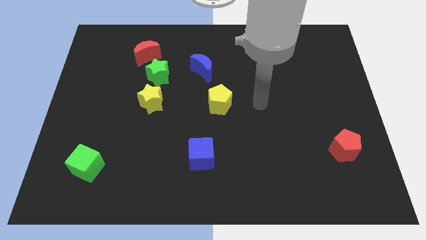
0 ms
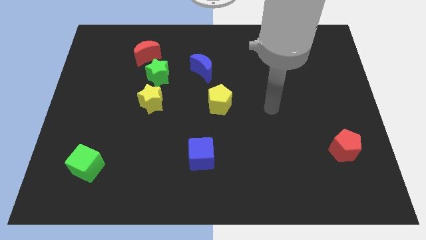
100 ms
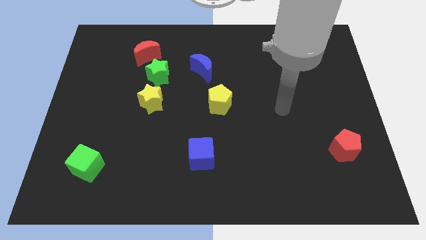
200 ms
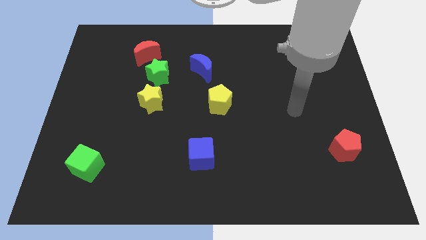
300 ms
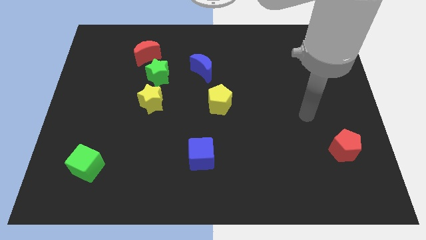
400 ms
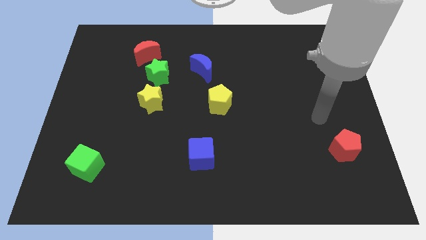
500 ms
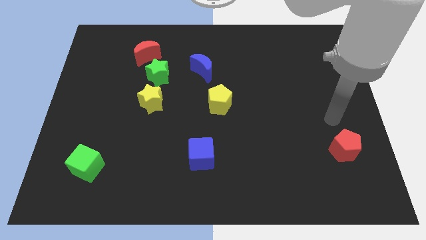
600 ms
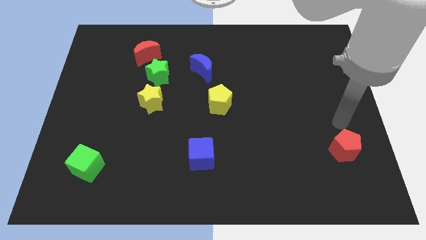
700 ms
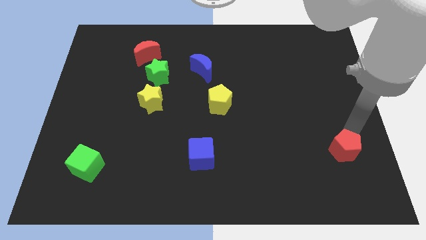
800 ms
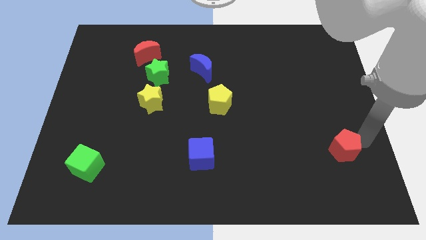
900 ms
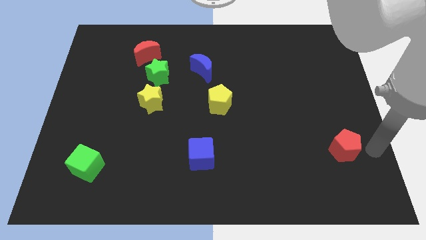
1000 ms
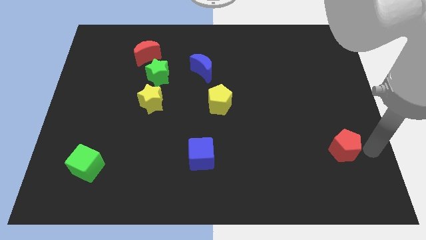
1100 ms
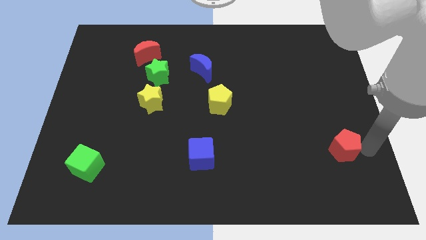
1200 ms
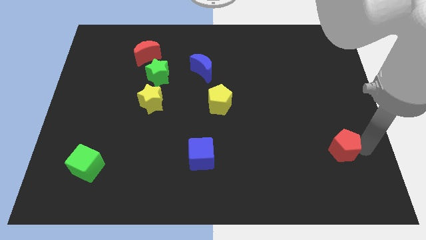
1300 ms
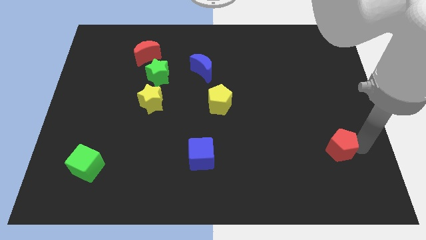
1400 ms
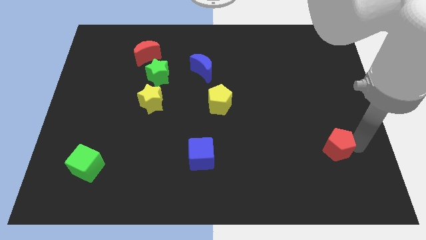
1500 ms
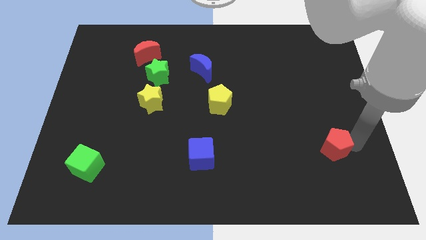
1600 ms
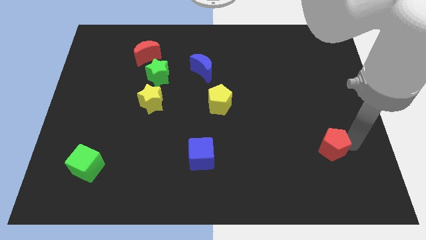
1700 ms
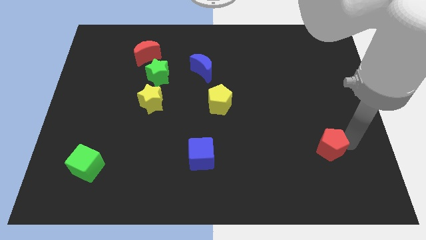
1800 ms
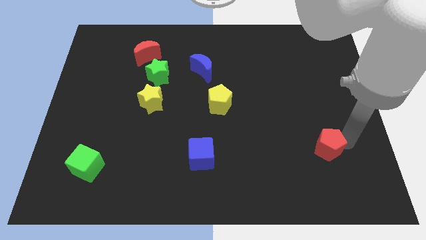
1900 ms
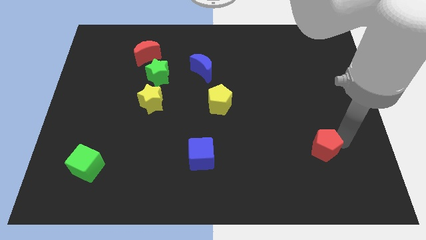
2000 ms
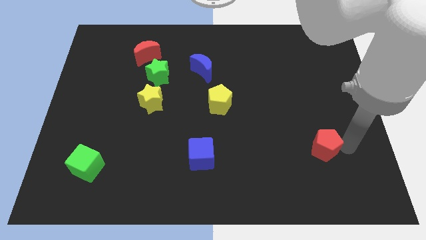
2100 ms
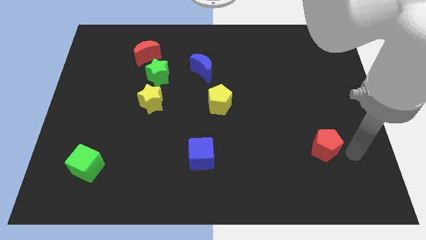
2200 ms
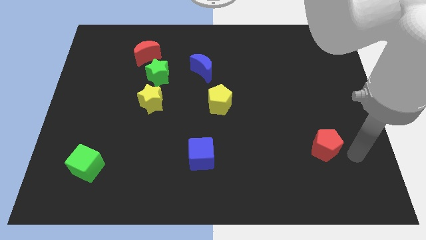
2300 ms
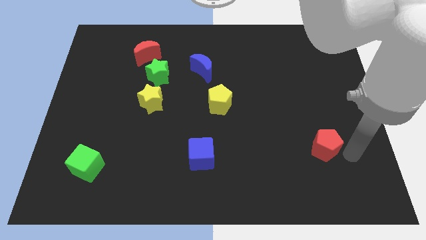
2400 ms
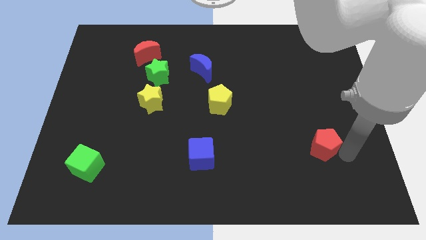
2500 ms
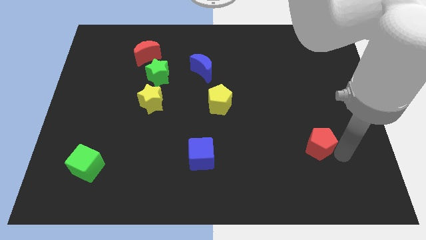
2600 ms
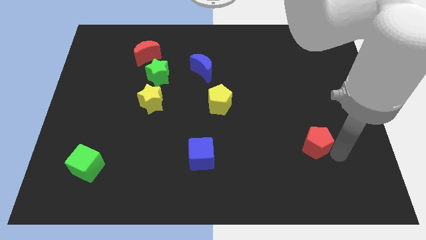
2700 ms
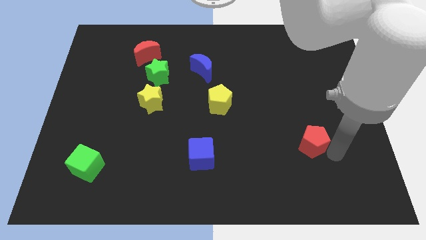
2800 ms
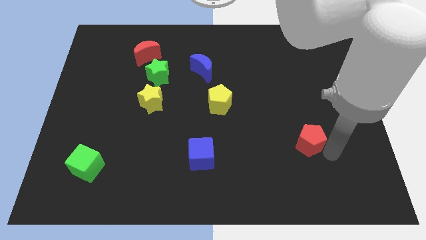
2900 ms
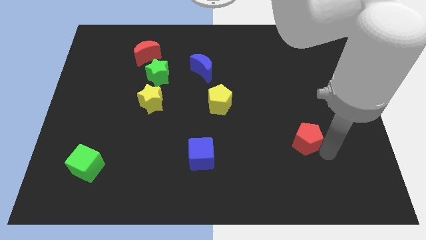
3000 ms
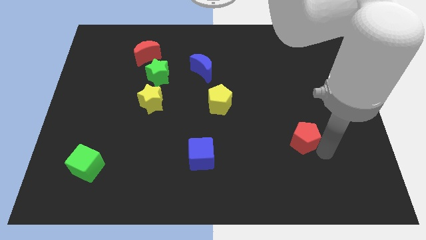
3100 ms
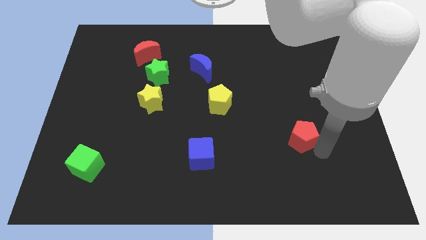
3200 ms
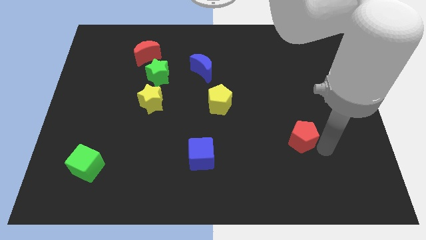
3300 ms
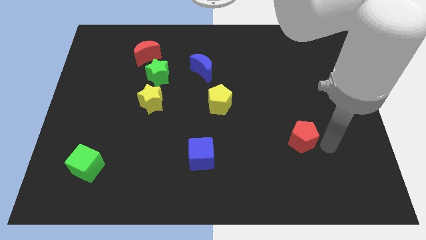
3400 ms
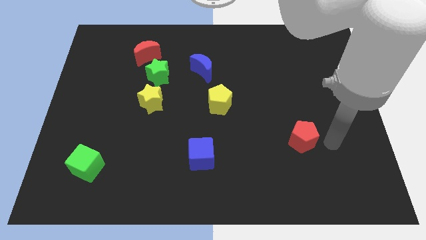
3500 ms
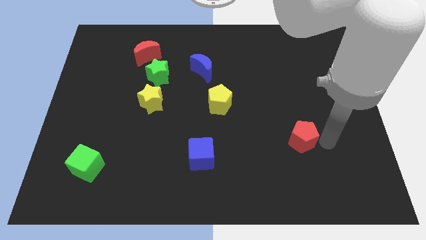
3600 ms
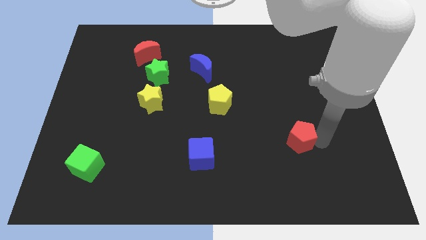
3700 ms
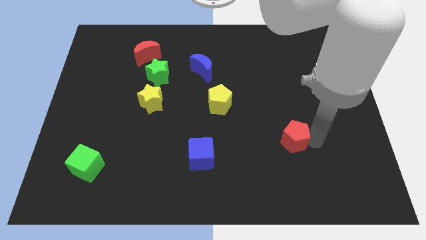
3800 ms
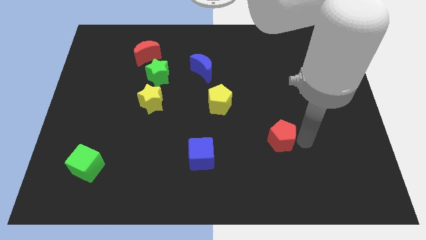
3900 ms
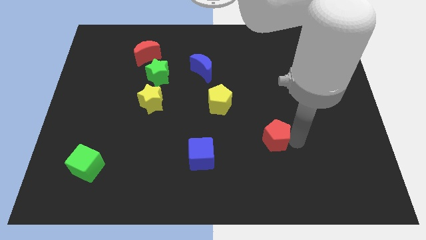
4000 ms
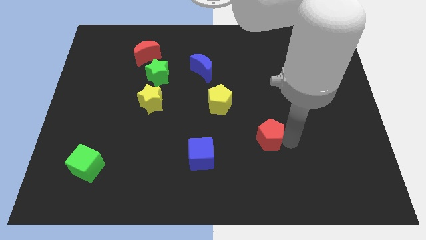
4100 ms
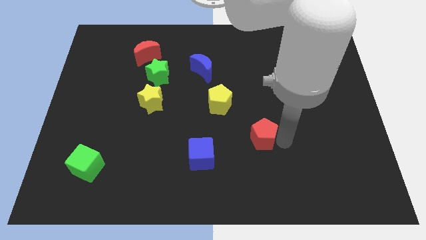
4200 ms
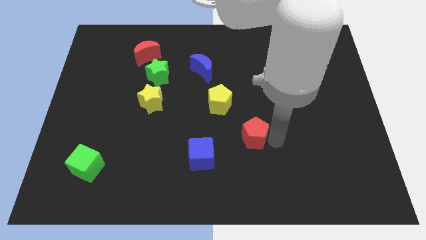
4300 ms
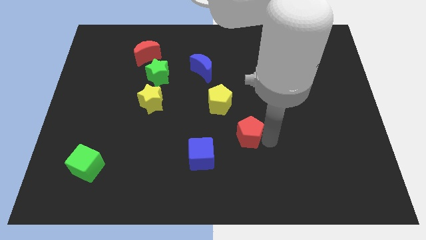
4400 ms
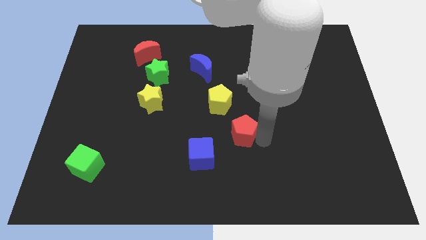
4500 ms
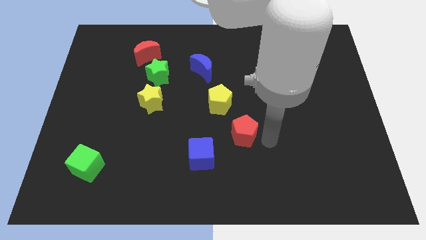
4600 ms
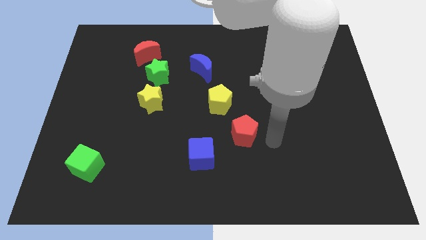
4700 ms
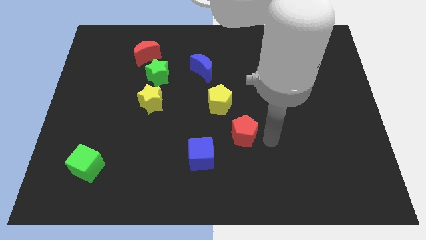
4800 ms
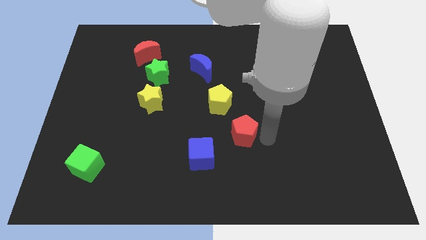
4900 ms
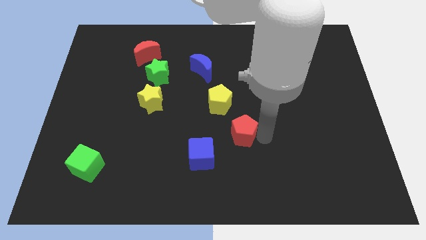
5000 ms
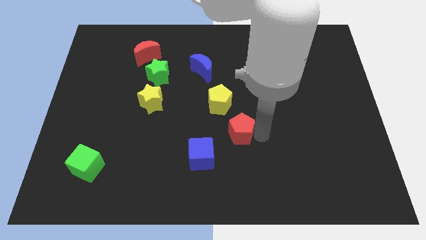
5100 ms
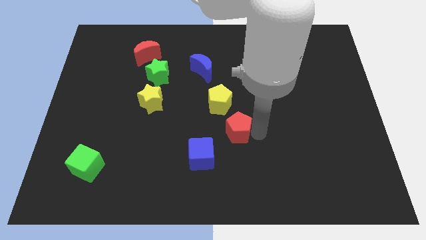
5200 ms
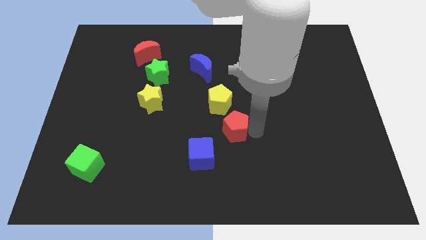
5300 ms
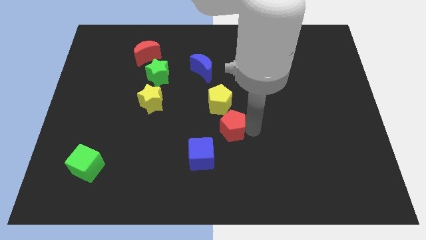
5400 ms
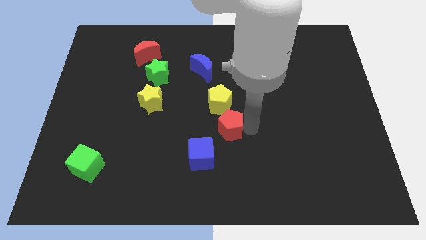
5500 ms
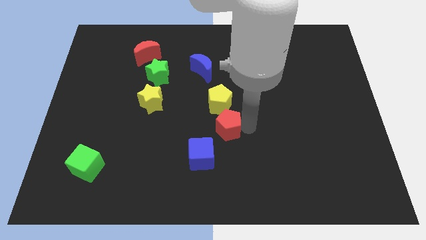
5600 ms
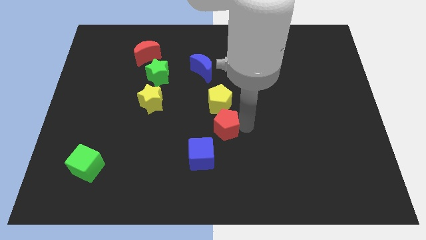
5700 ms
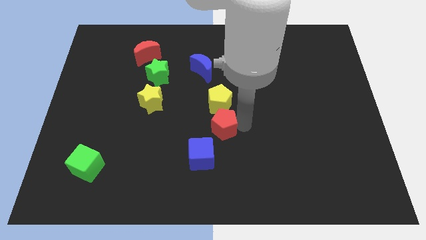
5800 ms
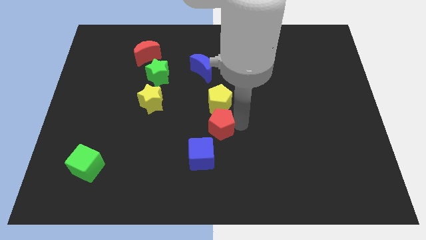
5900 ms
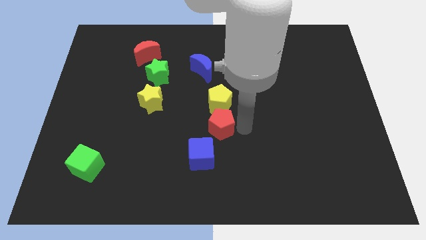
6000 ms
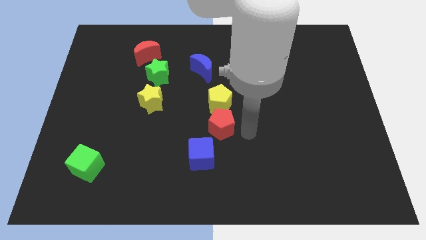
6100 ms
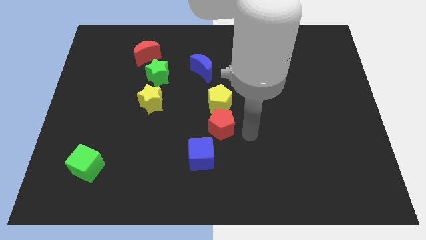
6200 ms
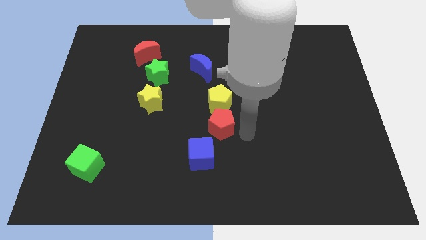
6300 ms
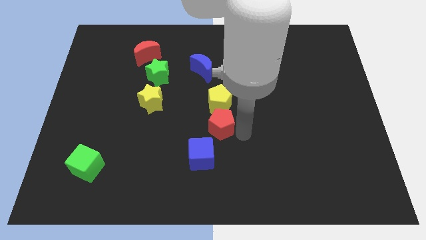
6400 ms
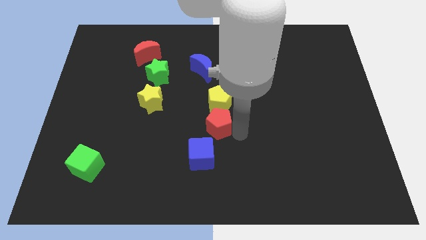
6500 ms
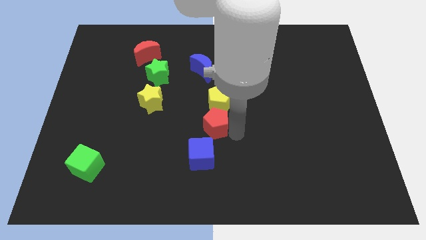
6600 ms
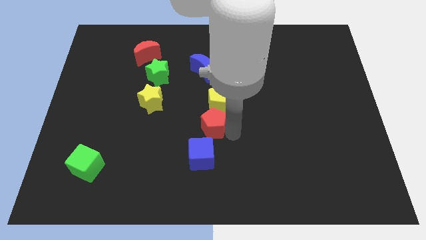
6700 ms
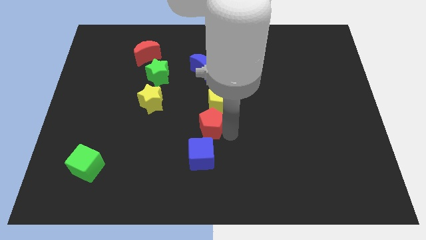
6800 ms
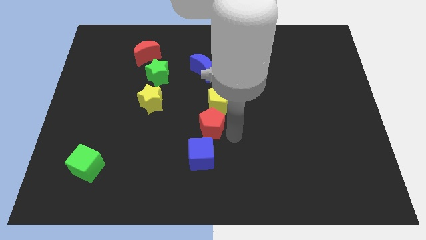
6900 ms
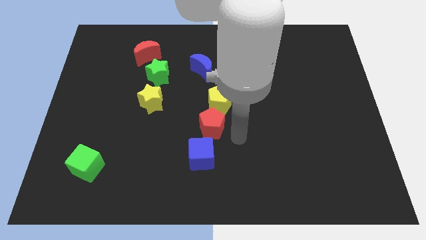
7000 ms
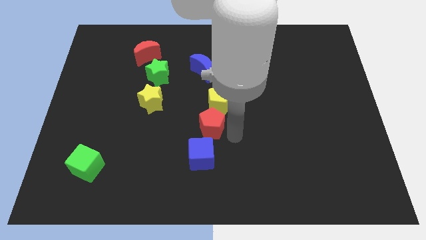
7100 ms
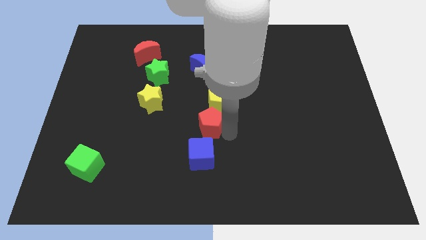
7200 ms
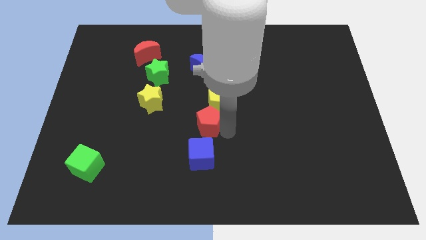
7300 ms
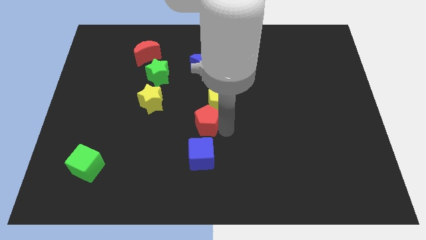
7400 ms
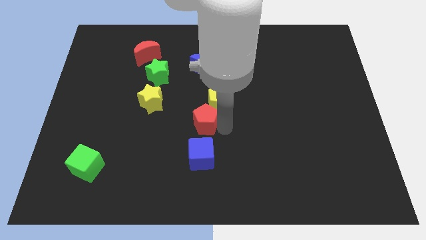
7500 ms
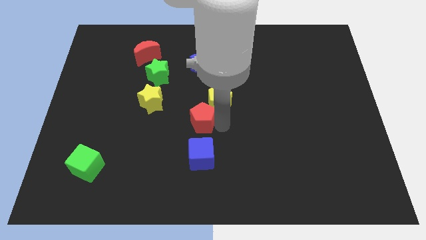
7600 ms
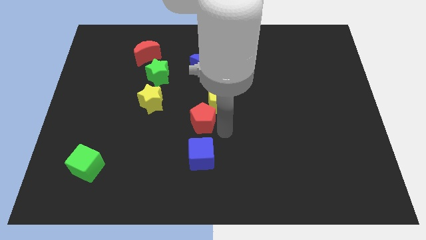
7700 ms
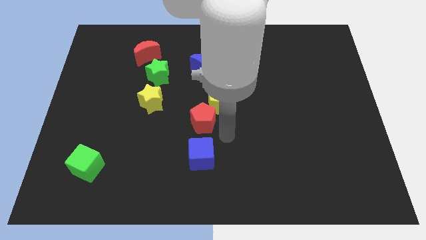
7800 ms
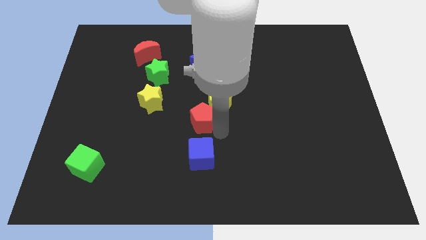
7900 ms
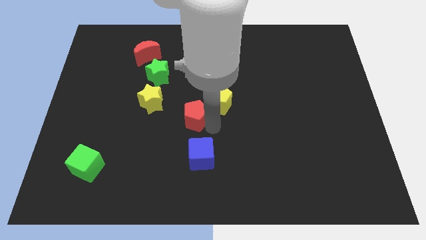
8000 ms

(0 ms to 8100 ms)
put the red pentagon just left of the yellow pentagon
